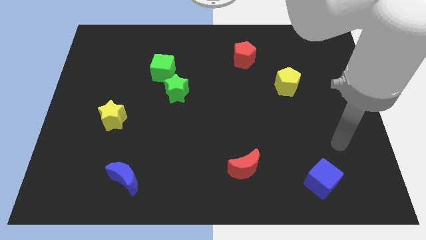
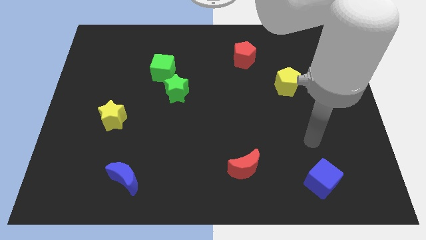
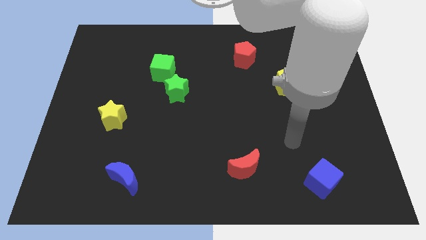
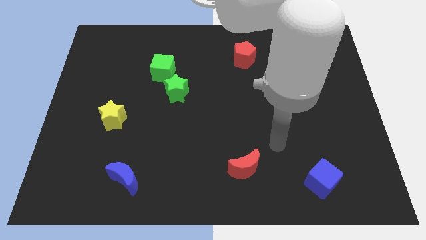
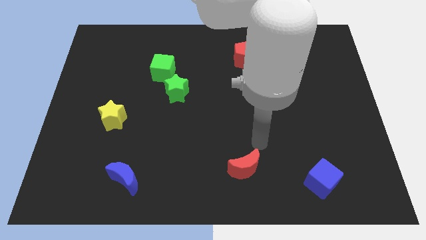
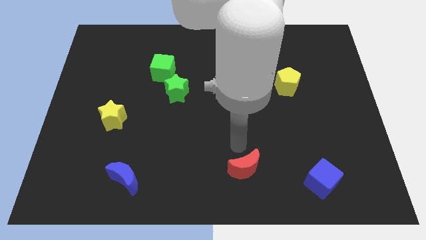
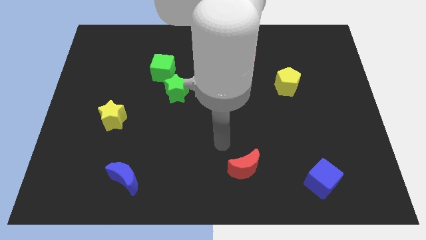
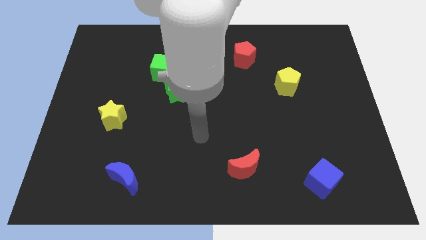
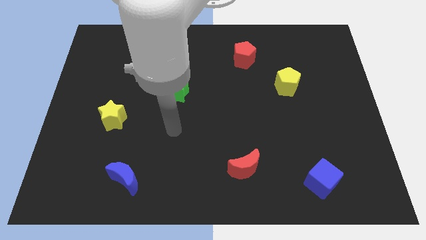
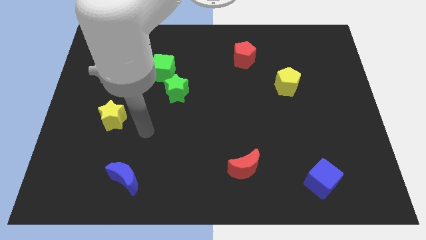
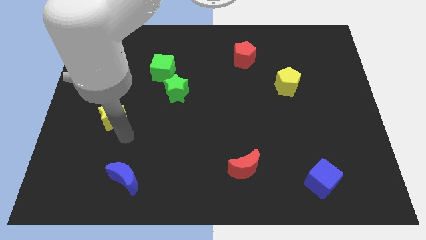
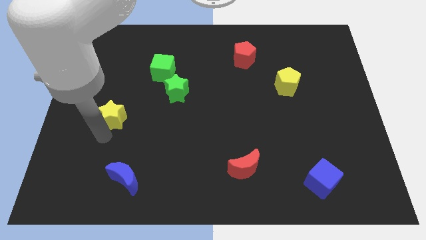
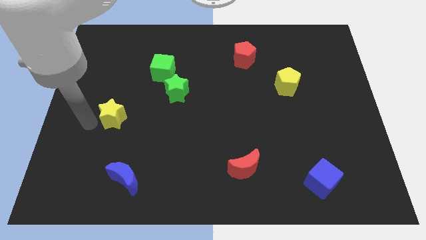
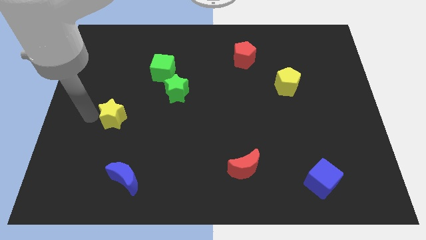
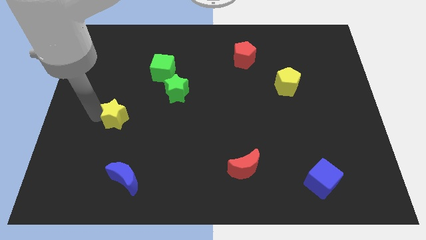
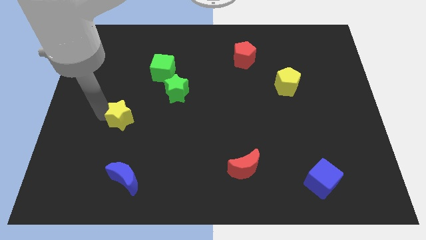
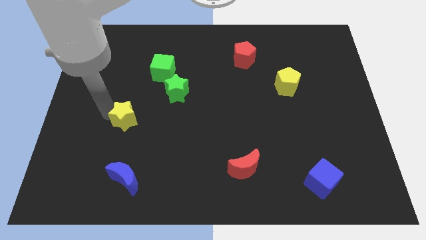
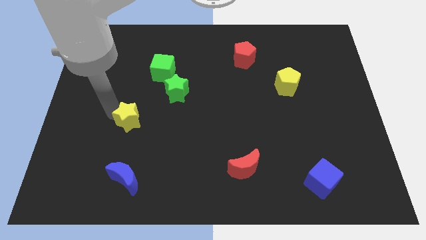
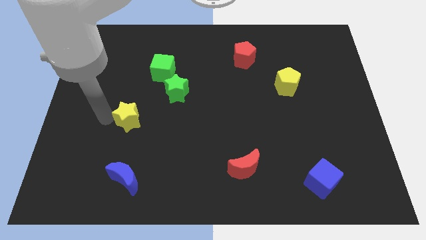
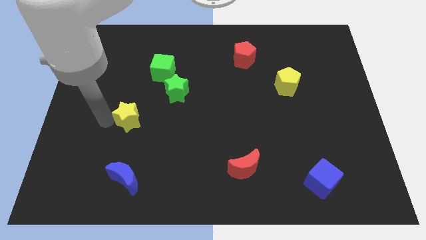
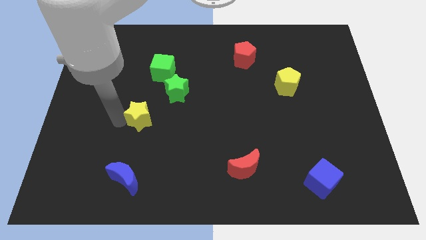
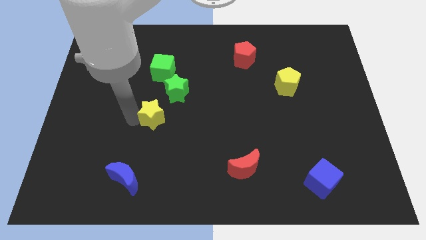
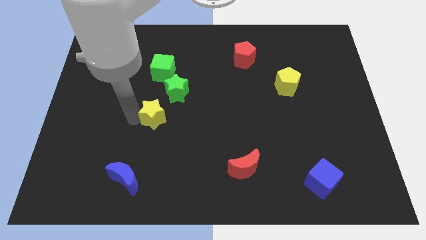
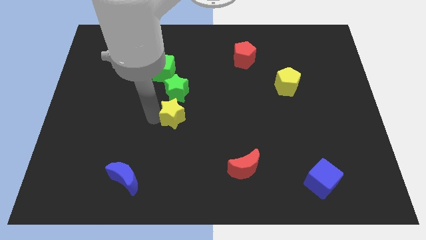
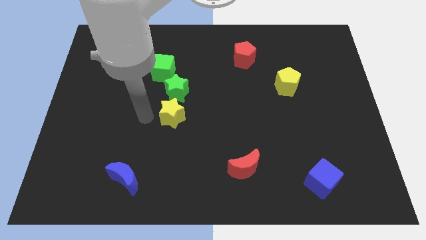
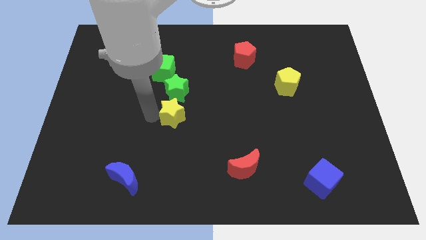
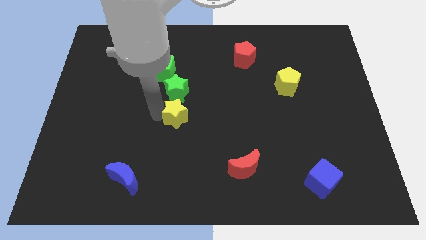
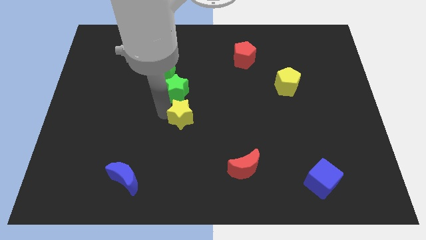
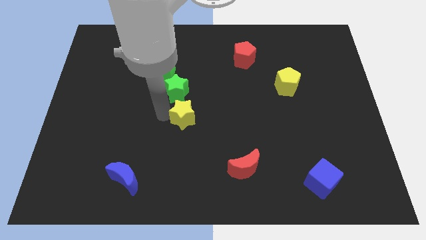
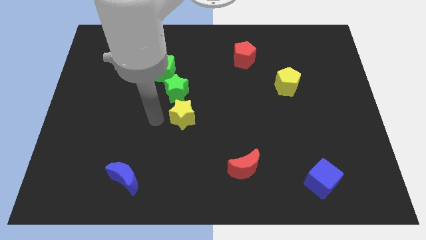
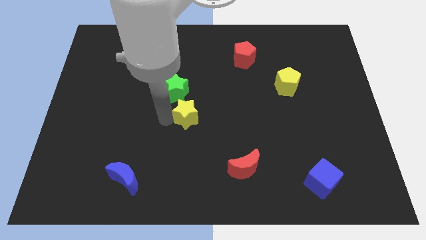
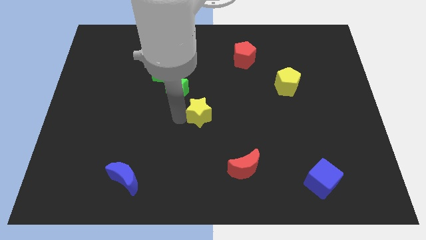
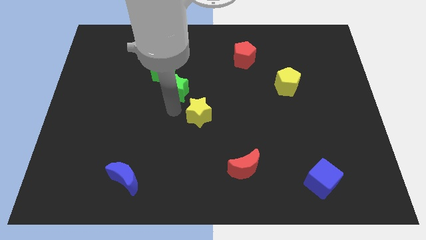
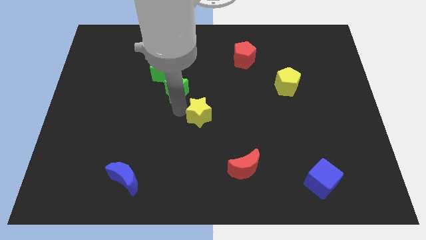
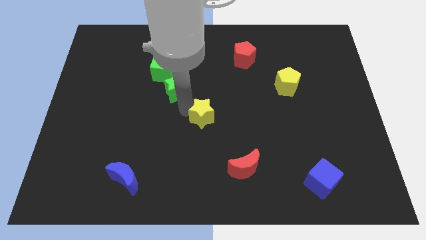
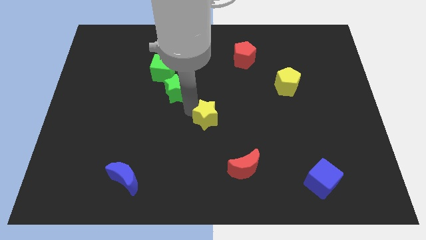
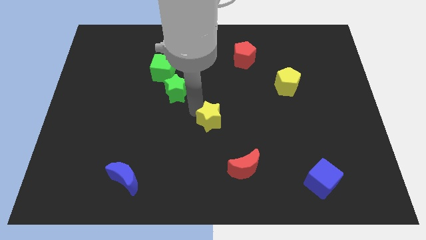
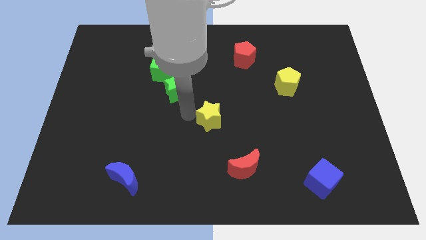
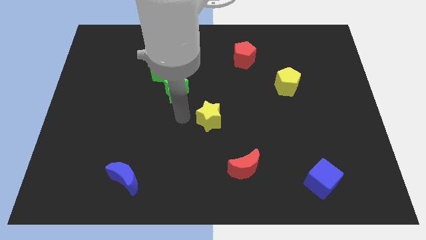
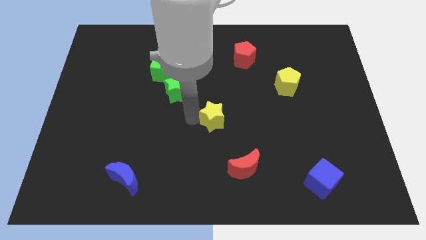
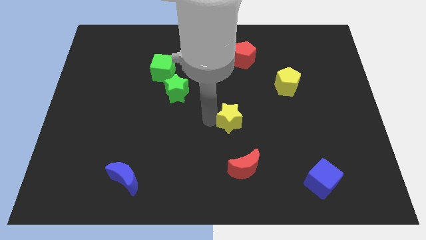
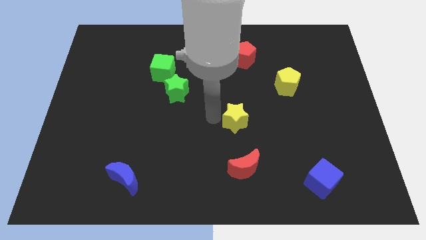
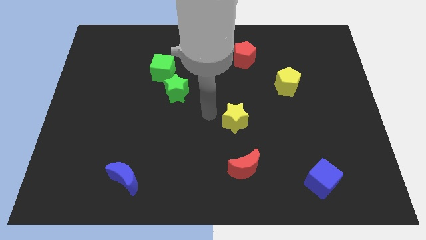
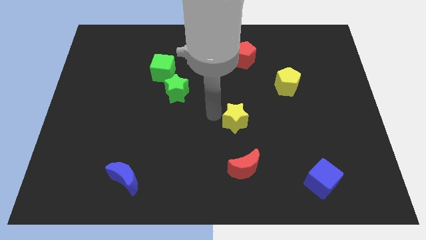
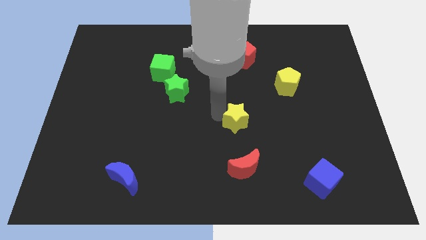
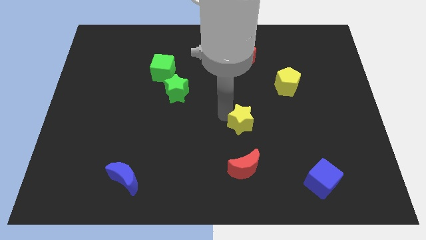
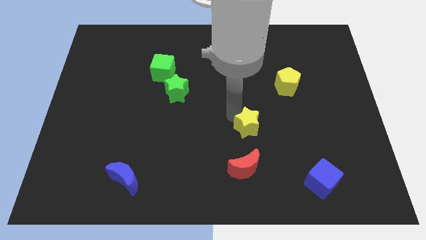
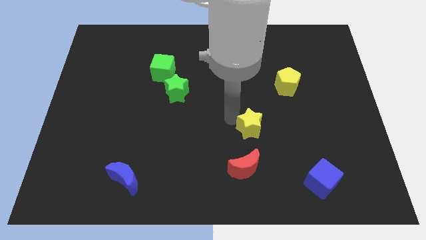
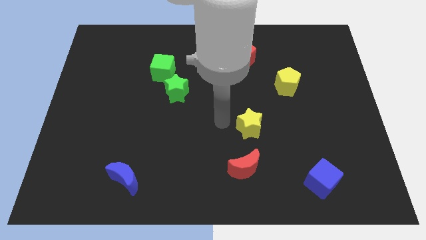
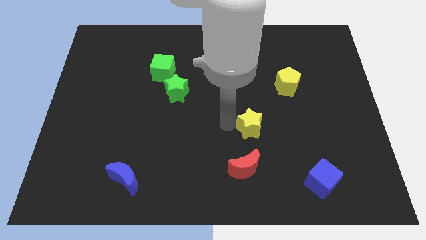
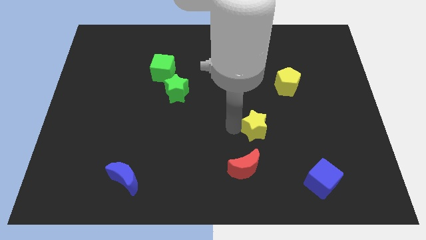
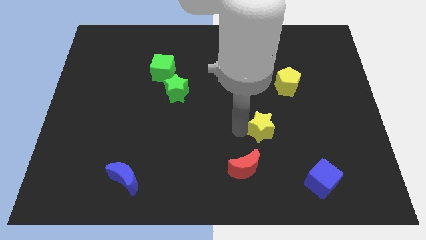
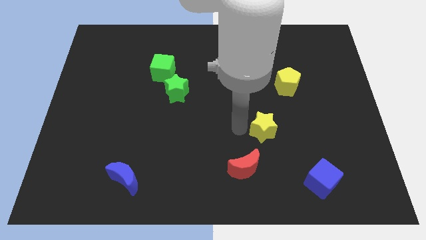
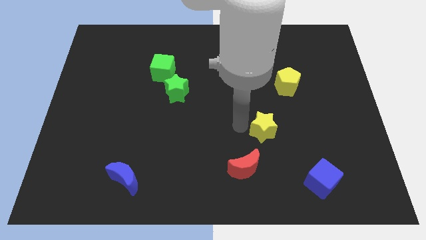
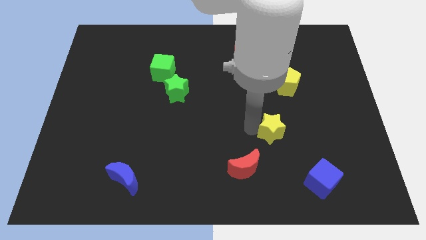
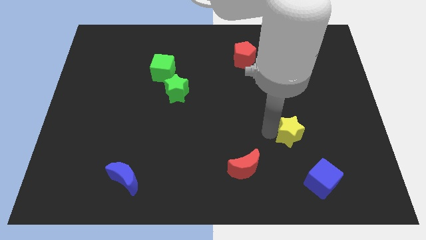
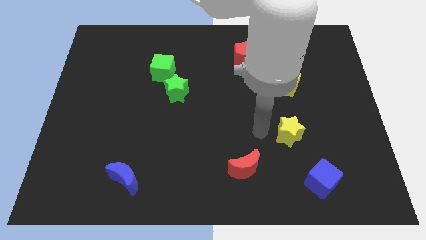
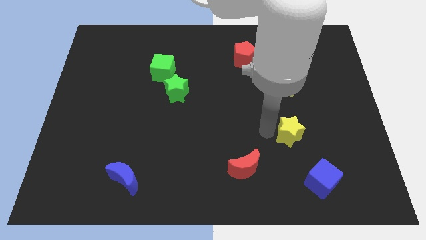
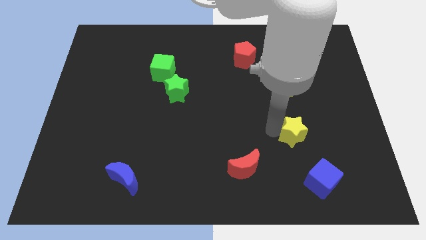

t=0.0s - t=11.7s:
slide the yellow star to the top of the blue cube

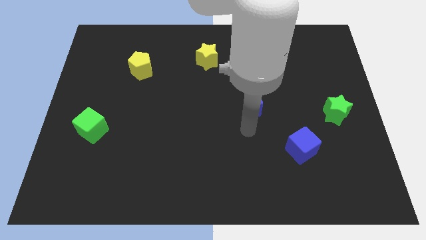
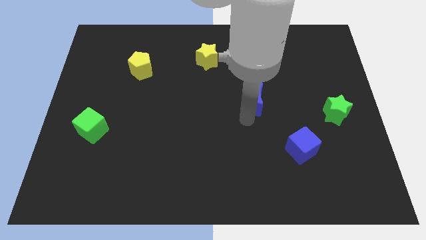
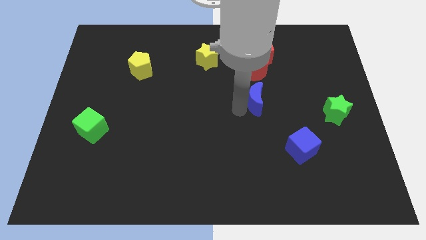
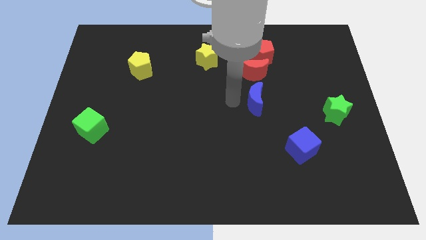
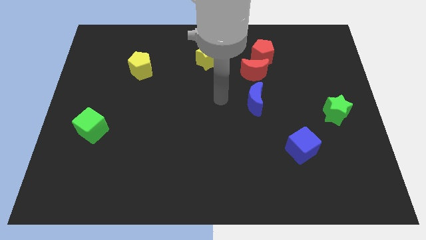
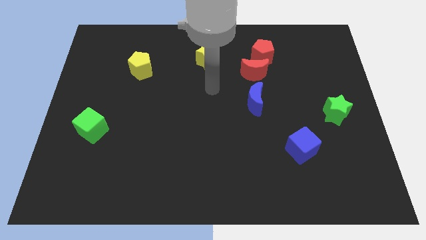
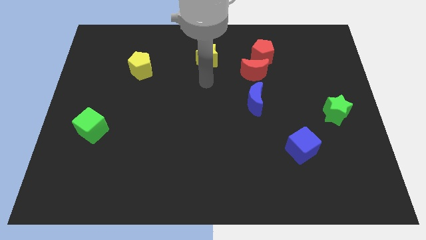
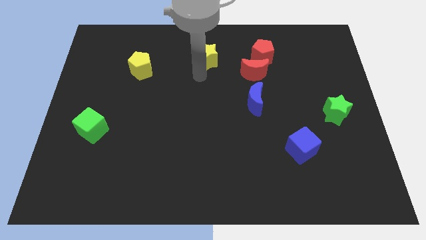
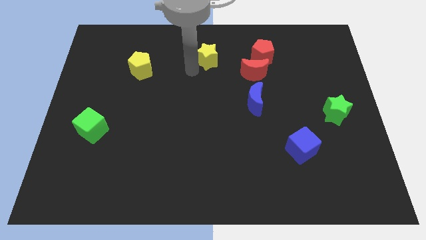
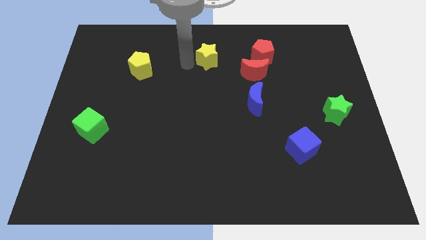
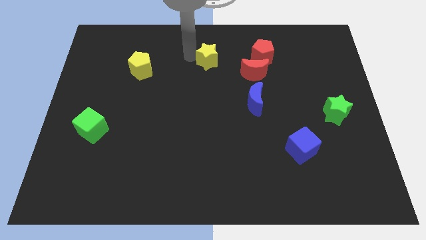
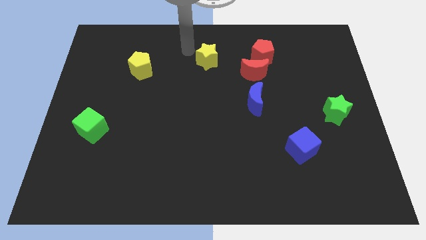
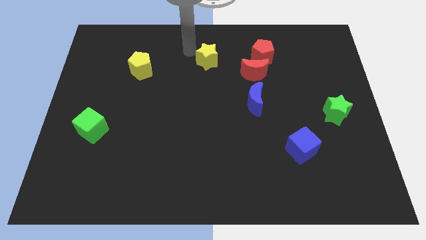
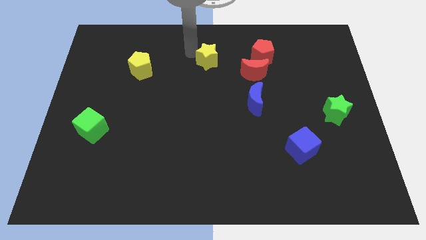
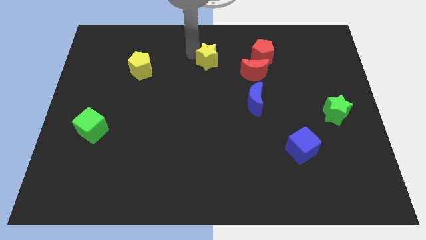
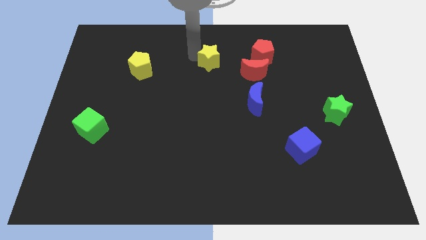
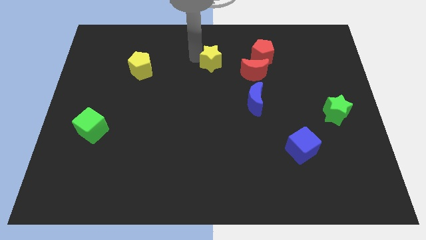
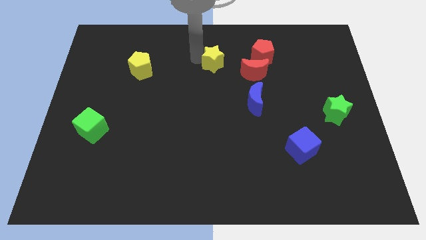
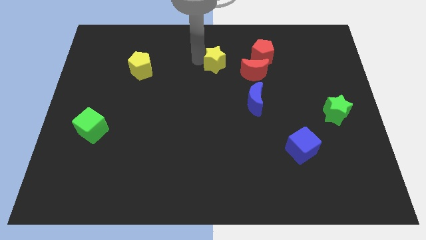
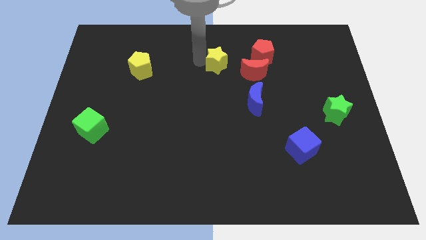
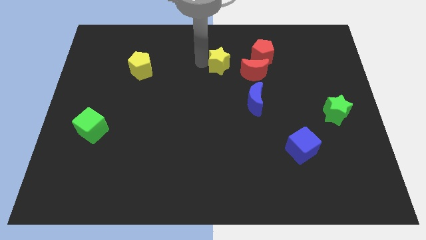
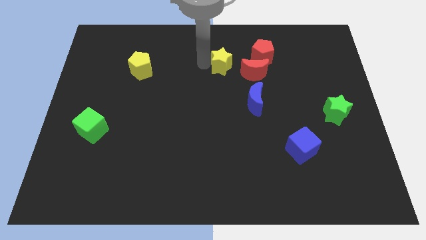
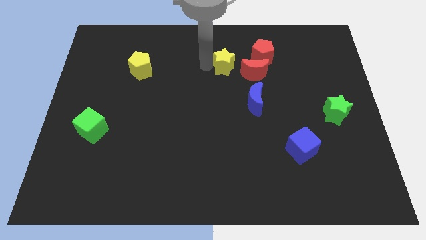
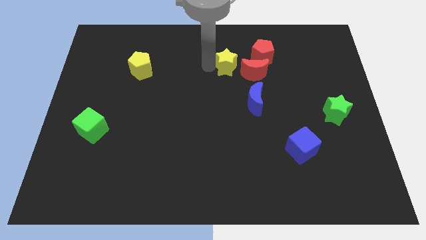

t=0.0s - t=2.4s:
push the yellow star diagonally down and to the left of the red pentagon

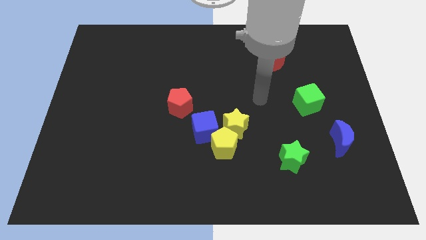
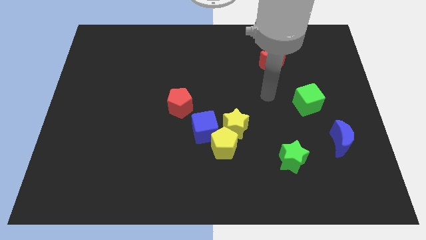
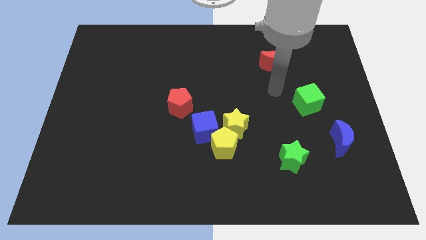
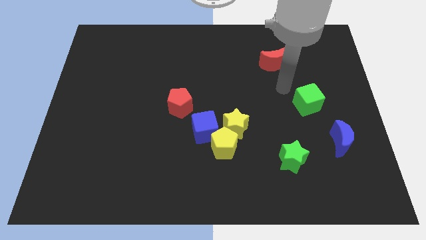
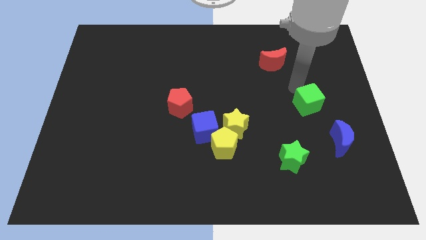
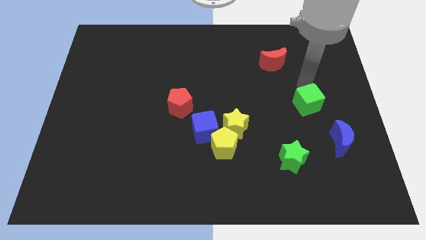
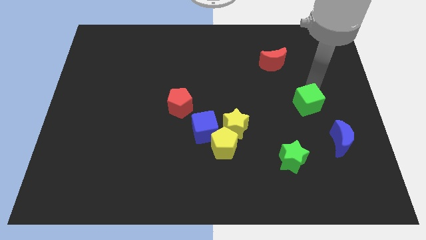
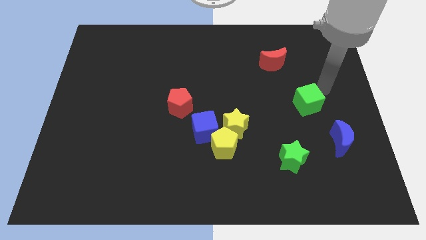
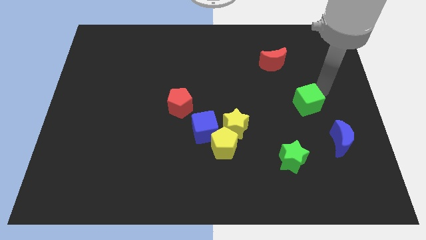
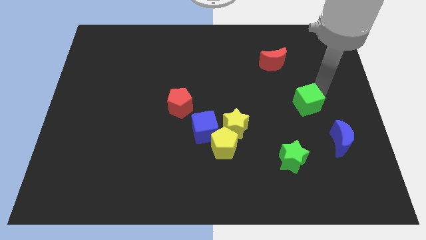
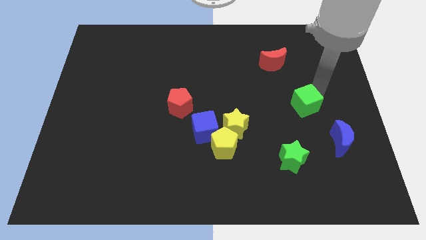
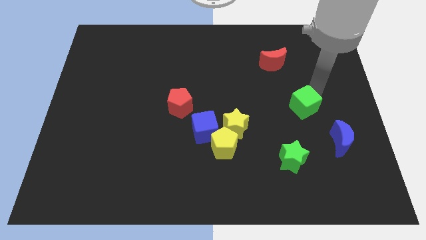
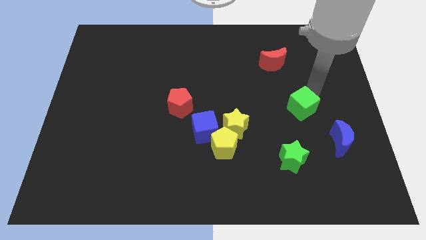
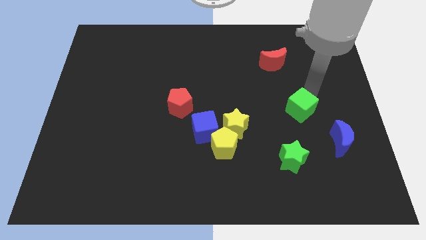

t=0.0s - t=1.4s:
move the green cube to the top of the green star
